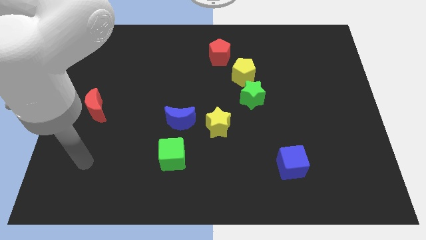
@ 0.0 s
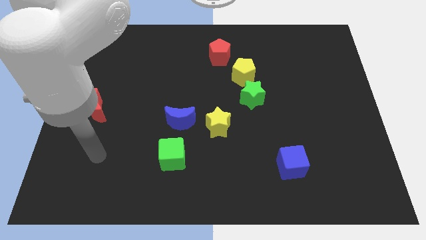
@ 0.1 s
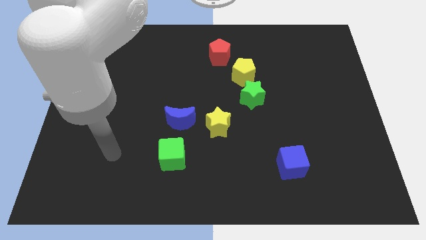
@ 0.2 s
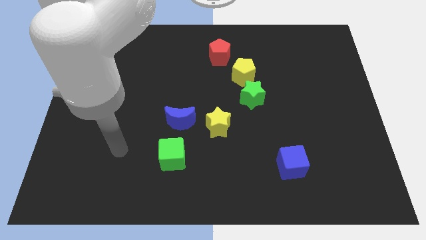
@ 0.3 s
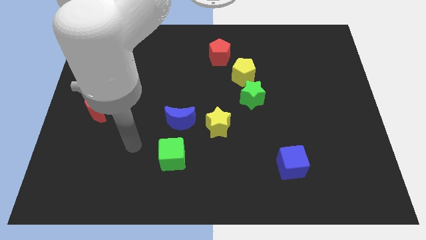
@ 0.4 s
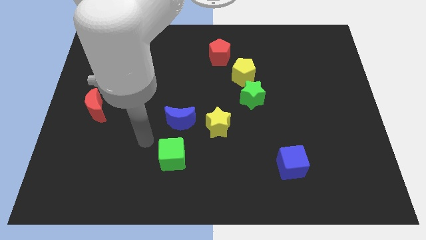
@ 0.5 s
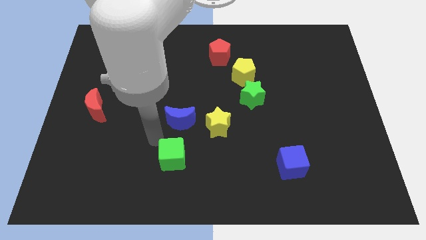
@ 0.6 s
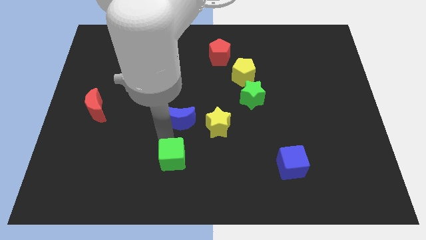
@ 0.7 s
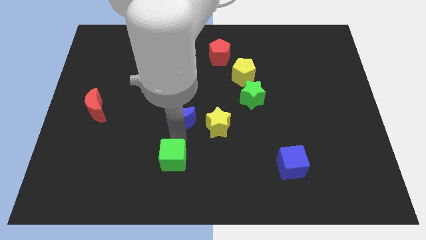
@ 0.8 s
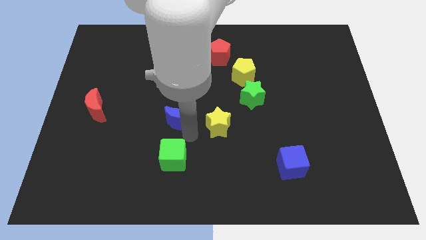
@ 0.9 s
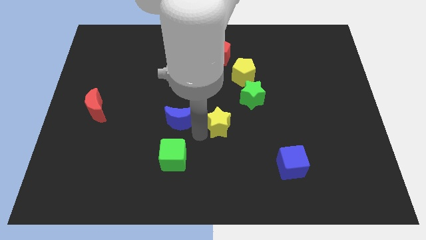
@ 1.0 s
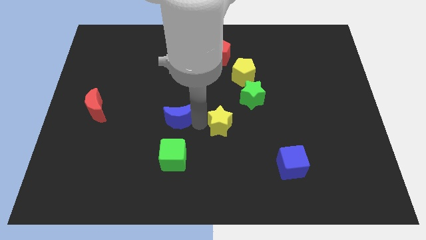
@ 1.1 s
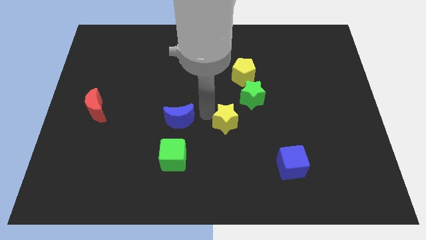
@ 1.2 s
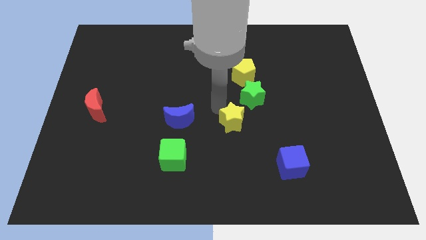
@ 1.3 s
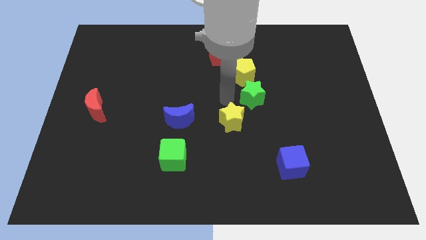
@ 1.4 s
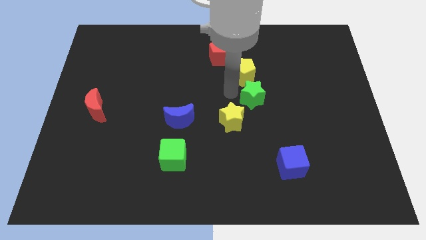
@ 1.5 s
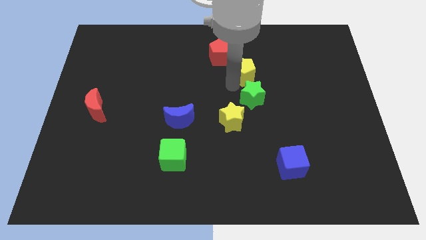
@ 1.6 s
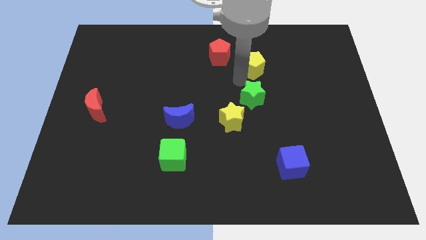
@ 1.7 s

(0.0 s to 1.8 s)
separate the green star from the yellow pentagon

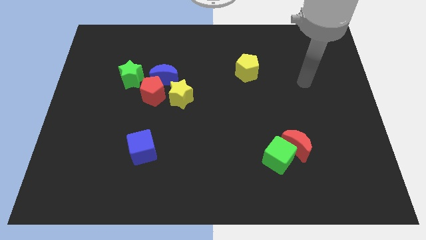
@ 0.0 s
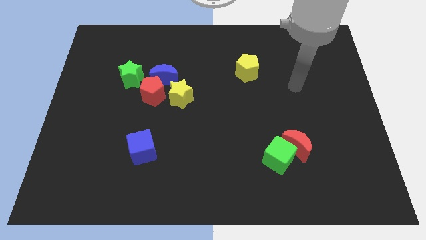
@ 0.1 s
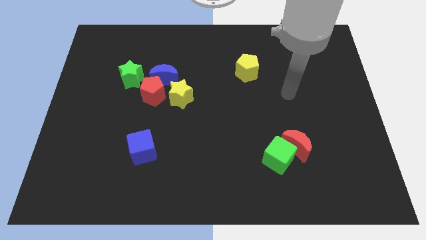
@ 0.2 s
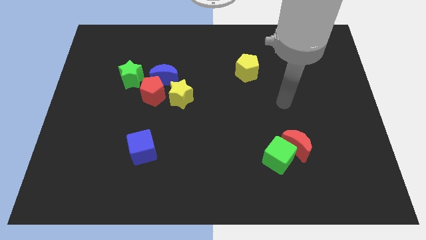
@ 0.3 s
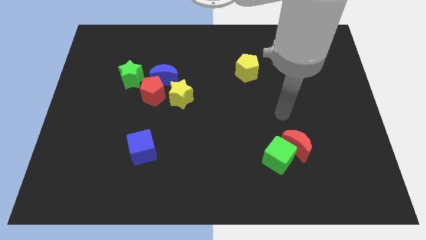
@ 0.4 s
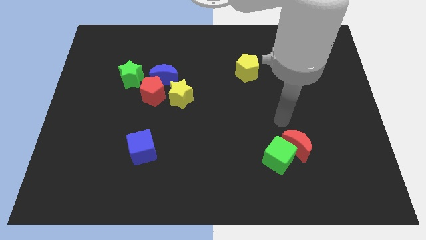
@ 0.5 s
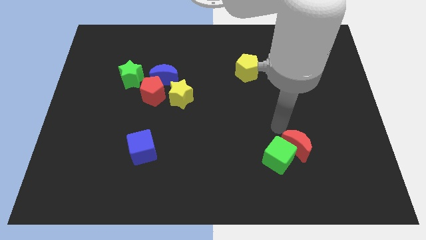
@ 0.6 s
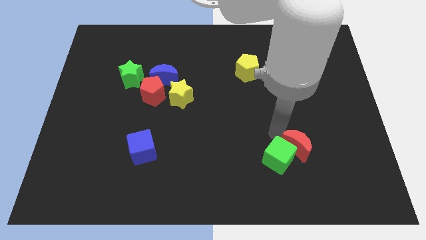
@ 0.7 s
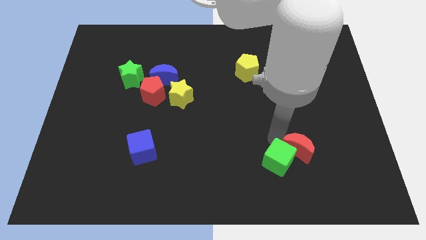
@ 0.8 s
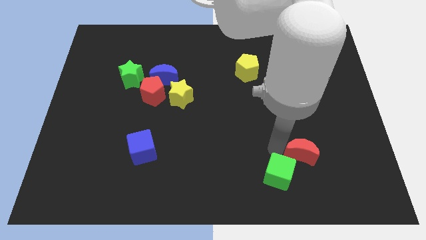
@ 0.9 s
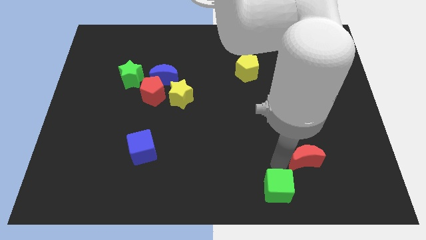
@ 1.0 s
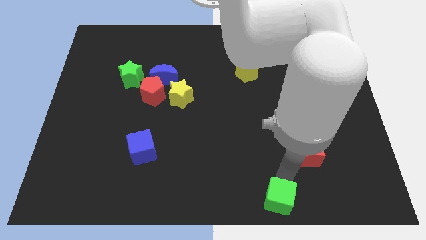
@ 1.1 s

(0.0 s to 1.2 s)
move the red moon away from the green cube

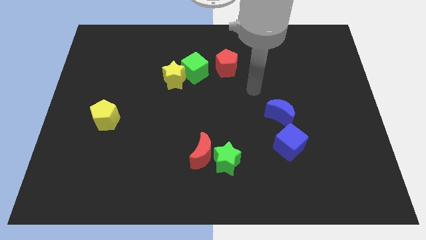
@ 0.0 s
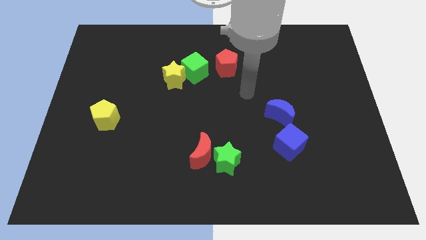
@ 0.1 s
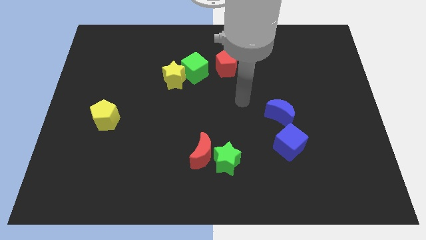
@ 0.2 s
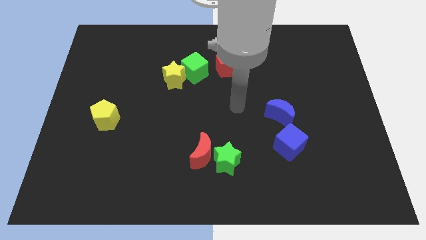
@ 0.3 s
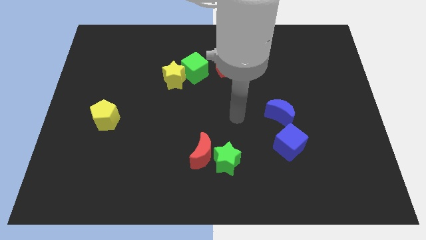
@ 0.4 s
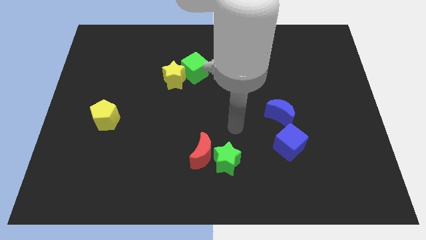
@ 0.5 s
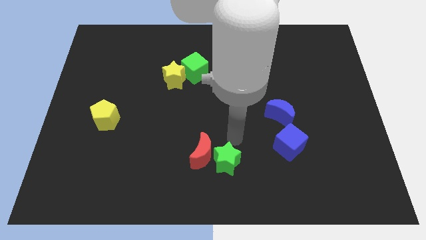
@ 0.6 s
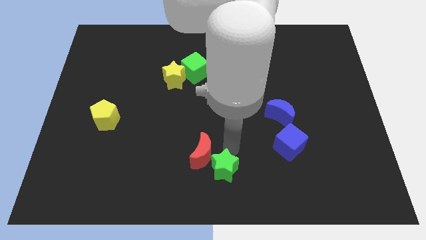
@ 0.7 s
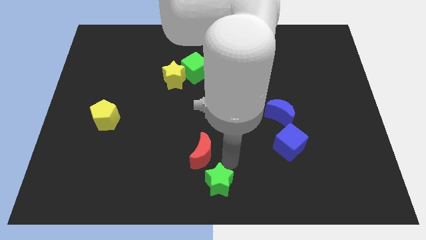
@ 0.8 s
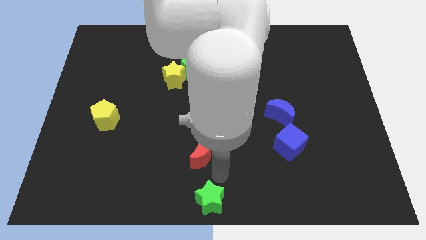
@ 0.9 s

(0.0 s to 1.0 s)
move the red moon away from the green star

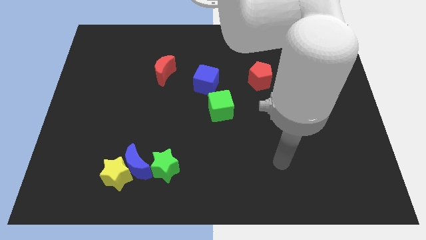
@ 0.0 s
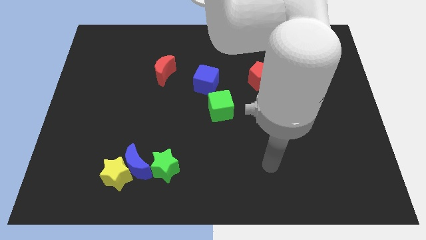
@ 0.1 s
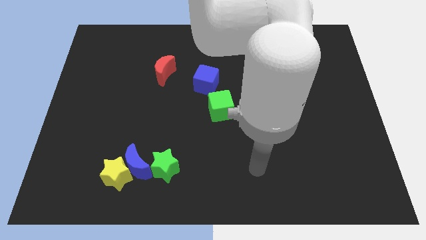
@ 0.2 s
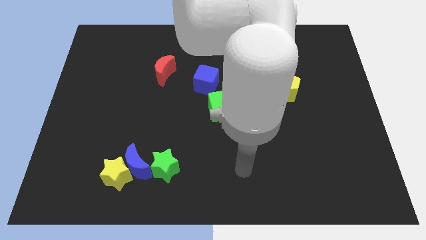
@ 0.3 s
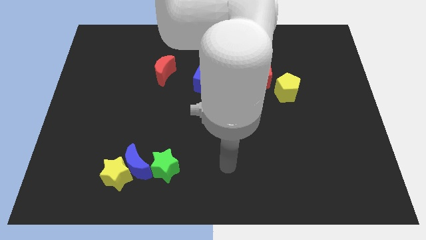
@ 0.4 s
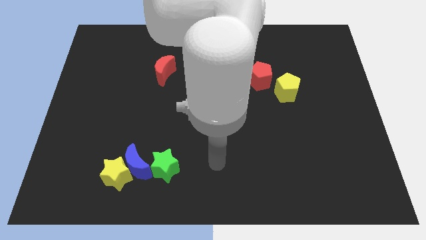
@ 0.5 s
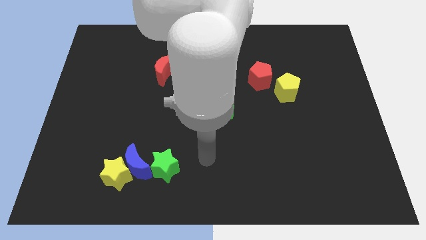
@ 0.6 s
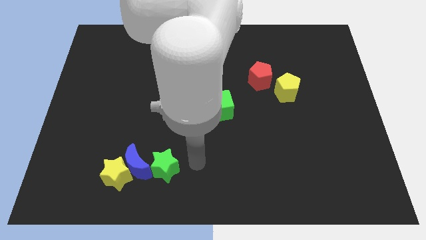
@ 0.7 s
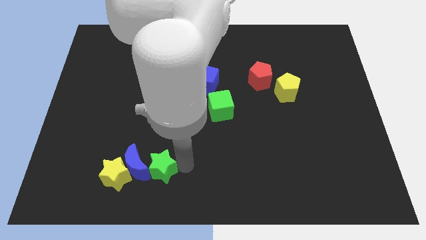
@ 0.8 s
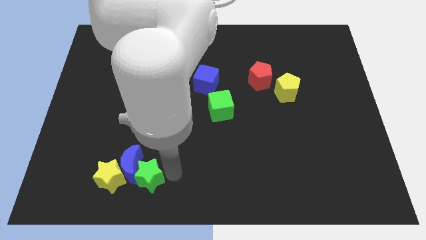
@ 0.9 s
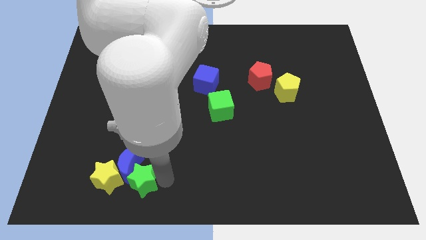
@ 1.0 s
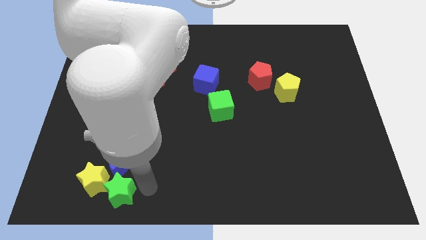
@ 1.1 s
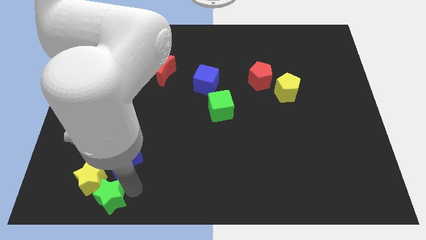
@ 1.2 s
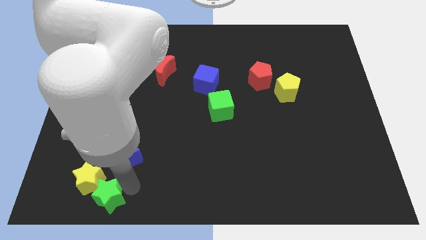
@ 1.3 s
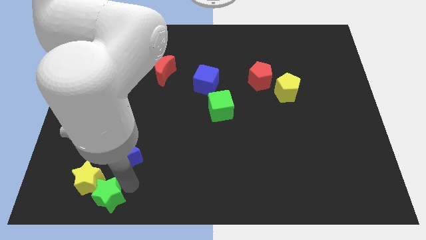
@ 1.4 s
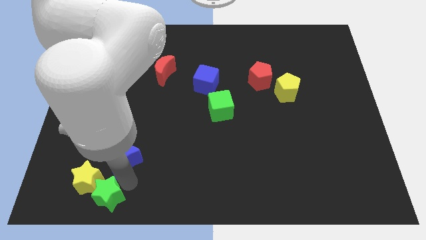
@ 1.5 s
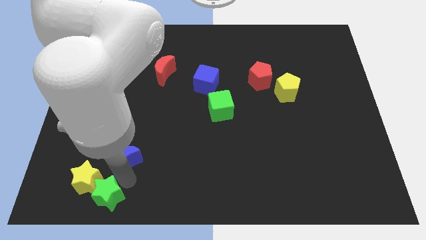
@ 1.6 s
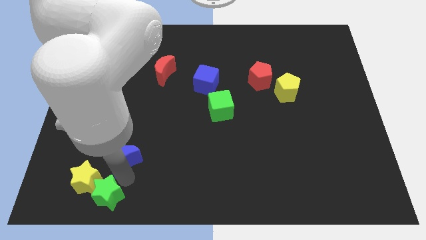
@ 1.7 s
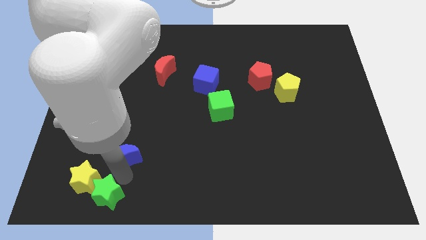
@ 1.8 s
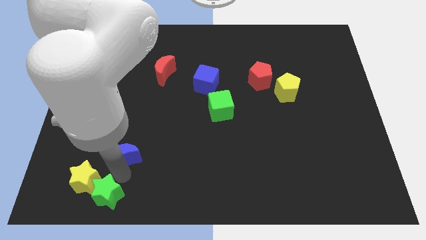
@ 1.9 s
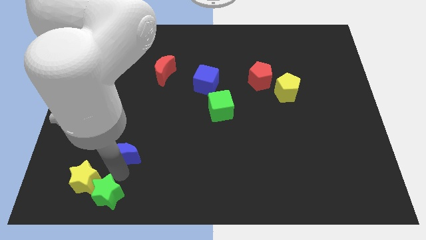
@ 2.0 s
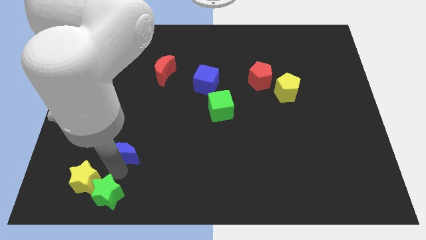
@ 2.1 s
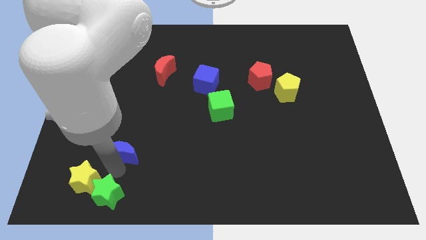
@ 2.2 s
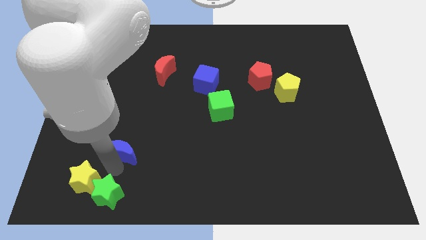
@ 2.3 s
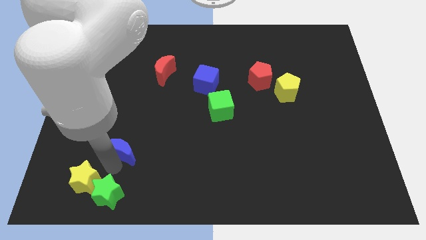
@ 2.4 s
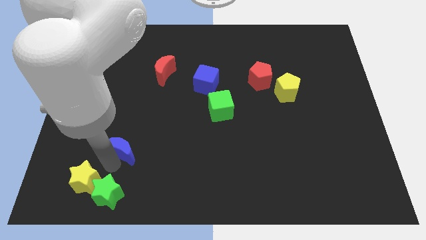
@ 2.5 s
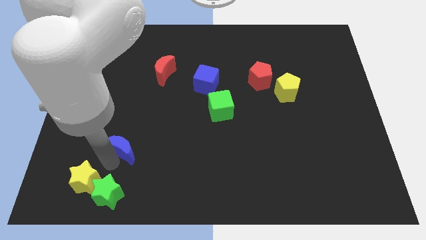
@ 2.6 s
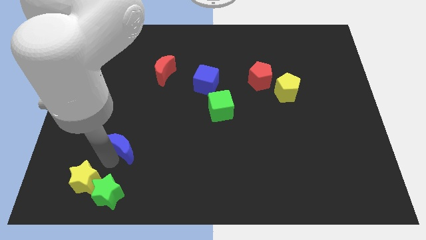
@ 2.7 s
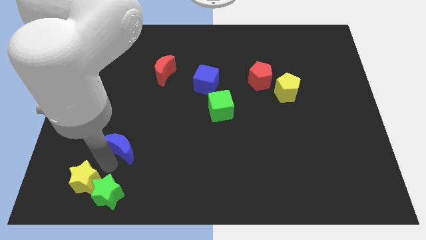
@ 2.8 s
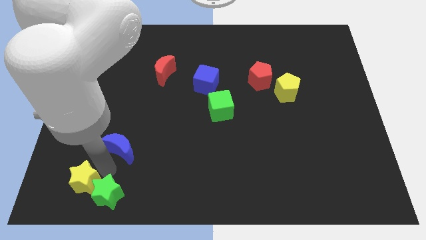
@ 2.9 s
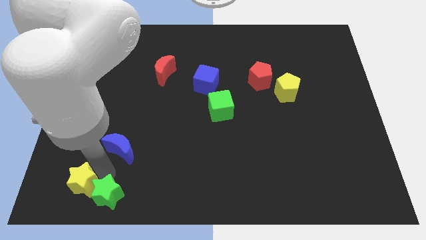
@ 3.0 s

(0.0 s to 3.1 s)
move the blue moon away from the yellow star and green star

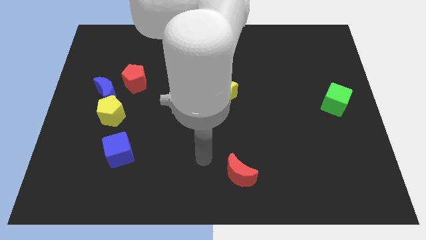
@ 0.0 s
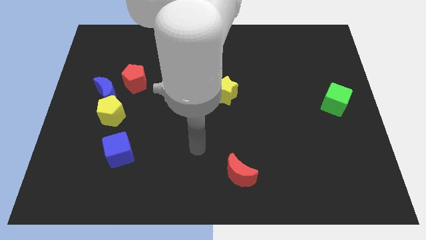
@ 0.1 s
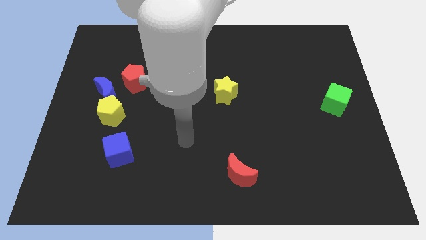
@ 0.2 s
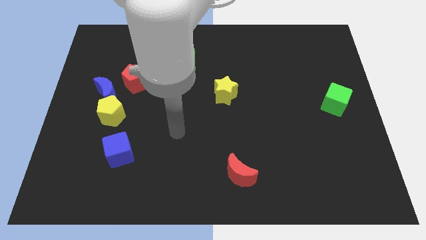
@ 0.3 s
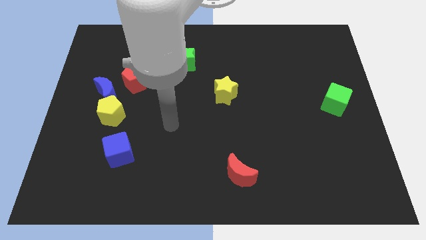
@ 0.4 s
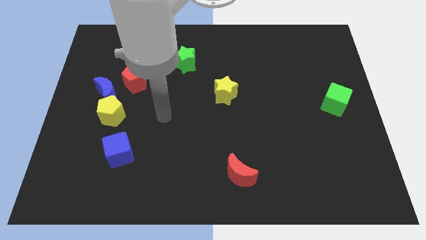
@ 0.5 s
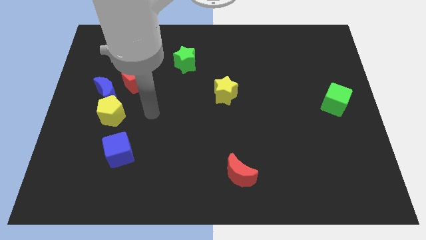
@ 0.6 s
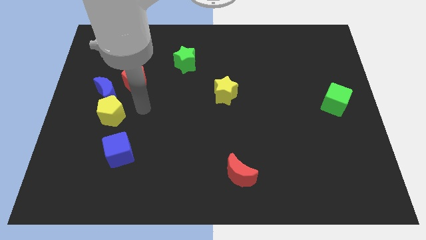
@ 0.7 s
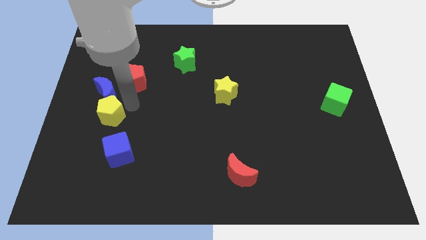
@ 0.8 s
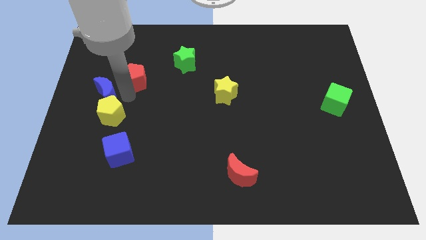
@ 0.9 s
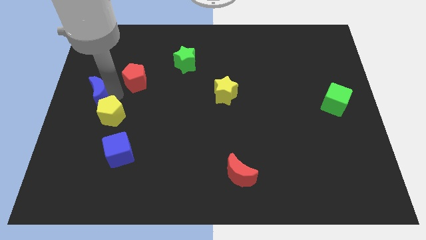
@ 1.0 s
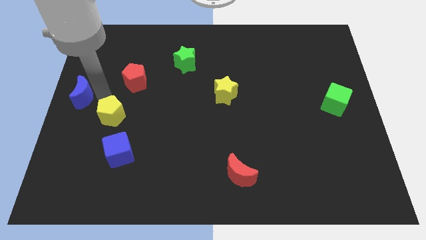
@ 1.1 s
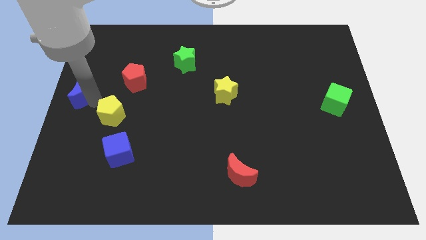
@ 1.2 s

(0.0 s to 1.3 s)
pull the yellow pentagon apart from the blue moon

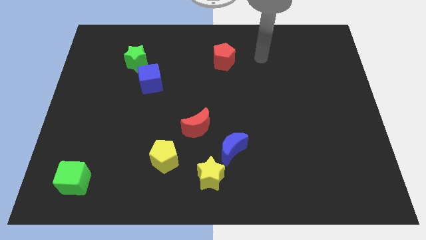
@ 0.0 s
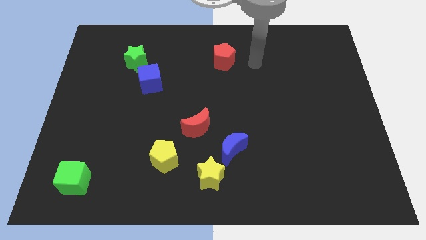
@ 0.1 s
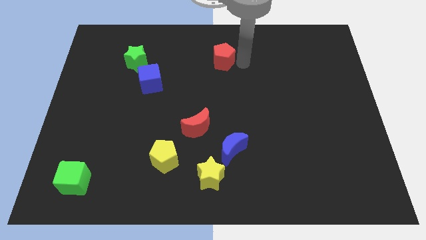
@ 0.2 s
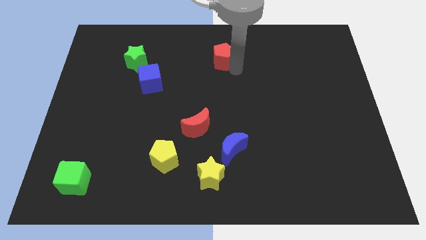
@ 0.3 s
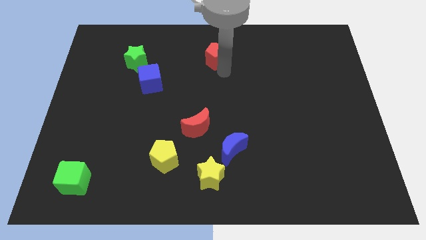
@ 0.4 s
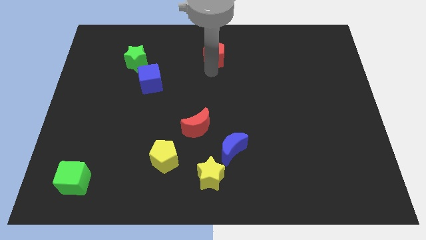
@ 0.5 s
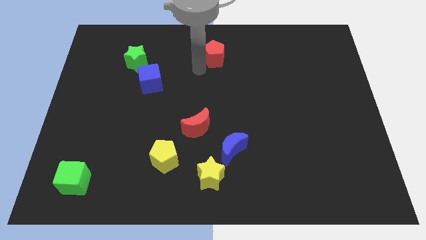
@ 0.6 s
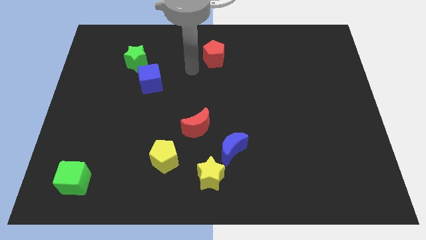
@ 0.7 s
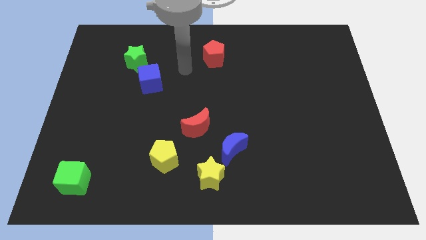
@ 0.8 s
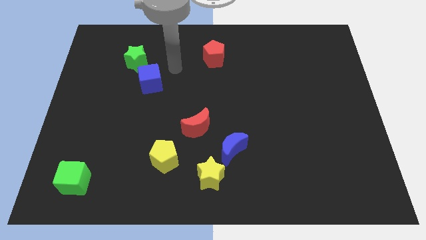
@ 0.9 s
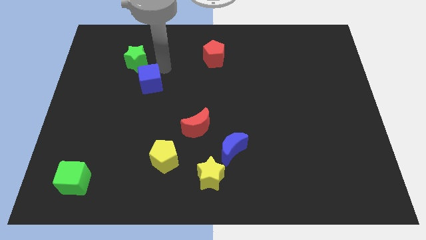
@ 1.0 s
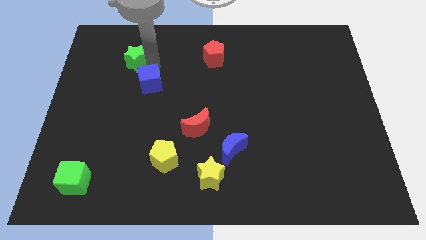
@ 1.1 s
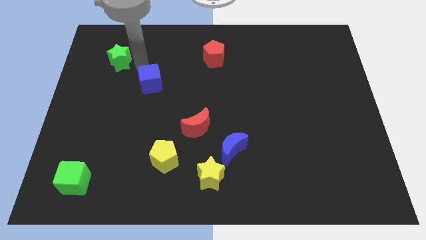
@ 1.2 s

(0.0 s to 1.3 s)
pull the blue cube apart from the green star
